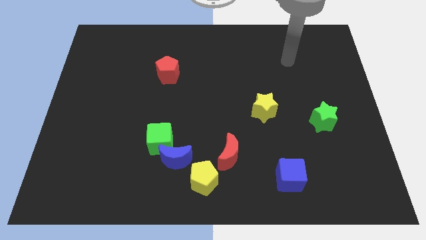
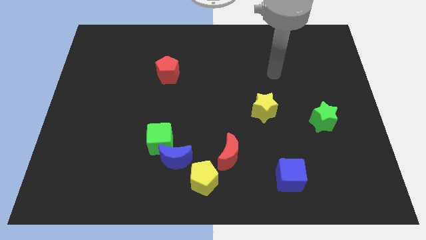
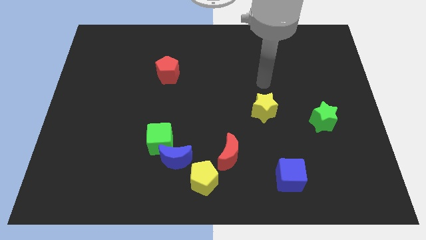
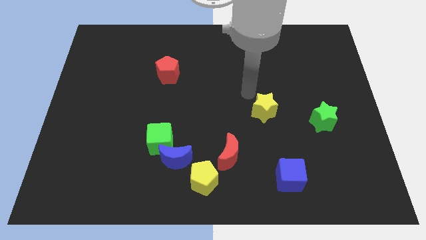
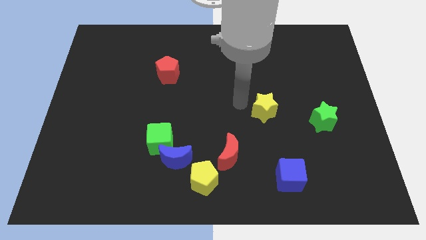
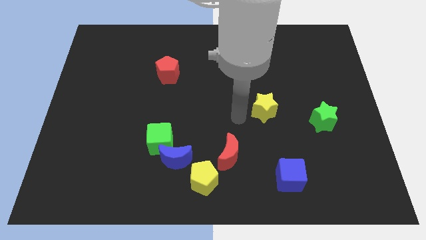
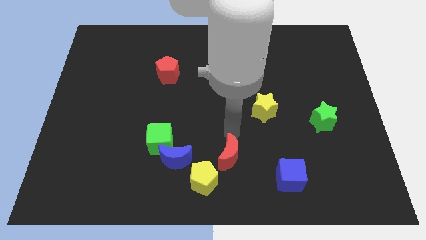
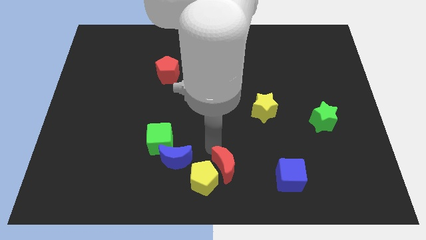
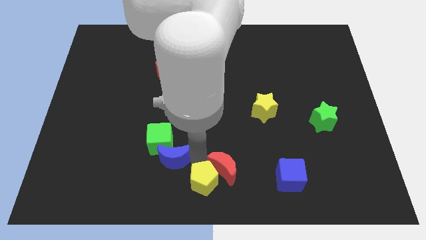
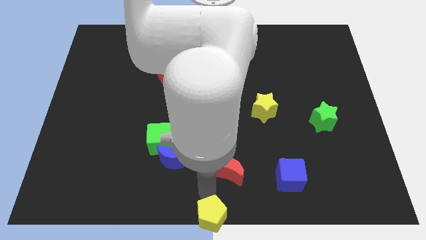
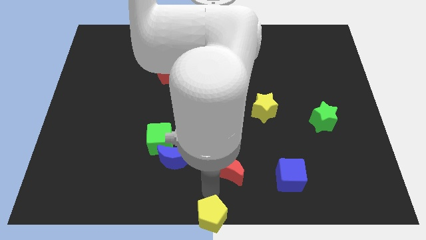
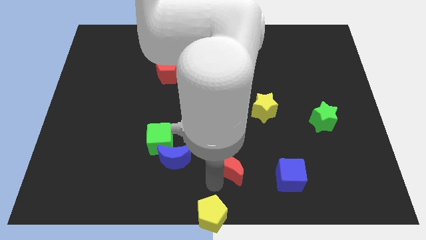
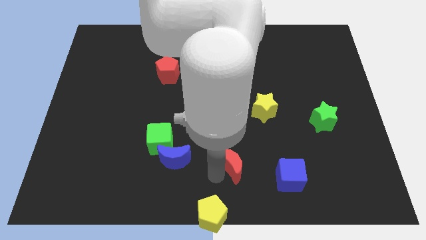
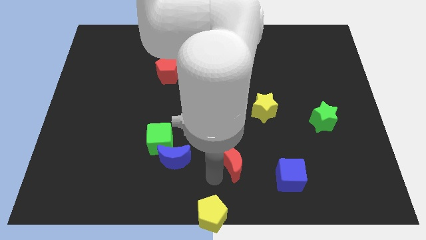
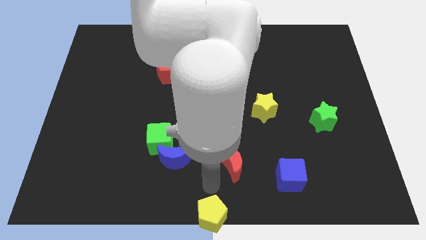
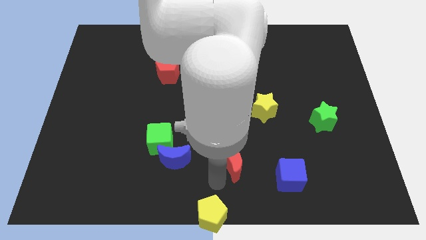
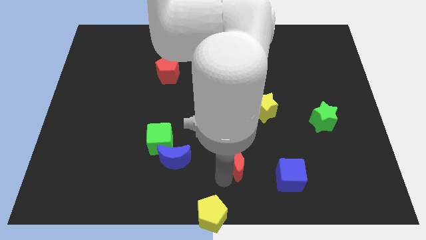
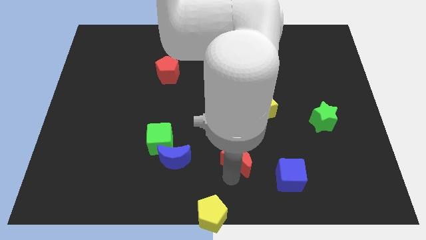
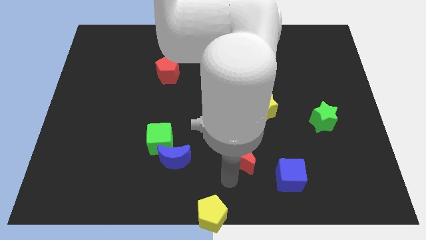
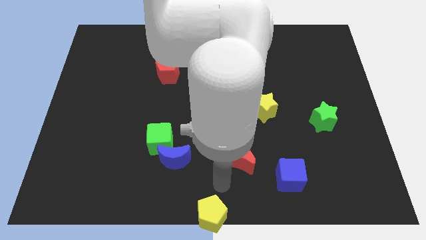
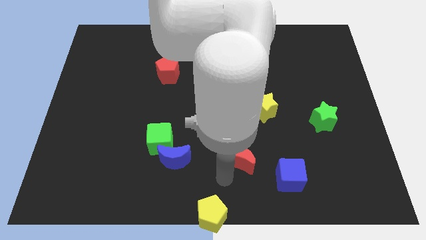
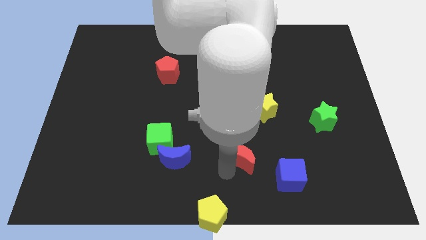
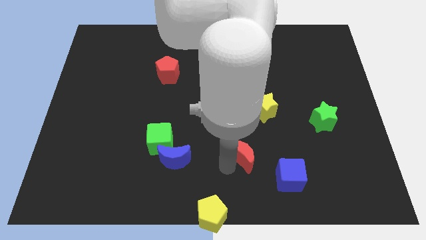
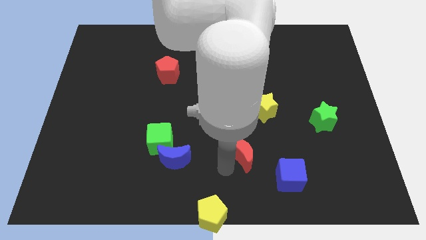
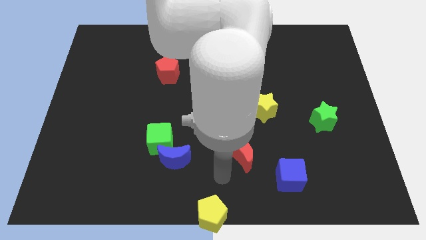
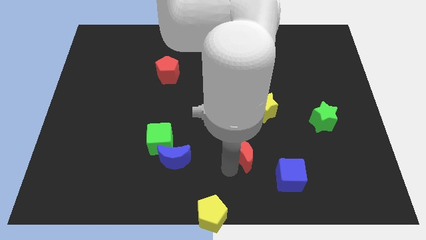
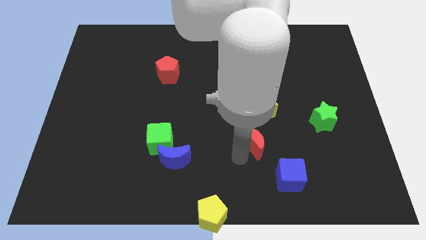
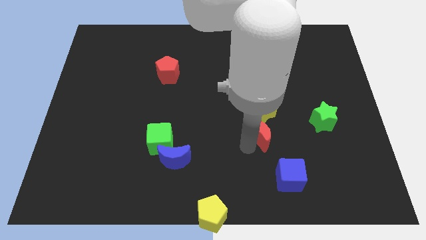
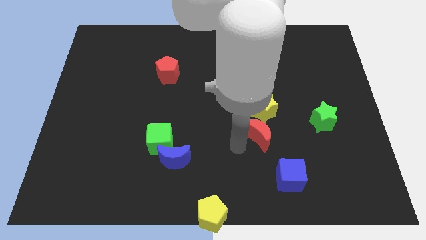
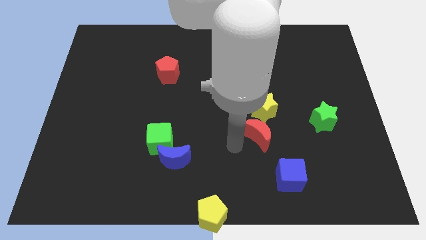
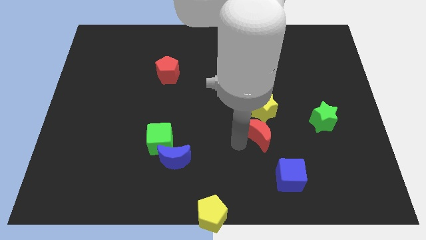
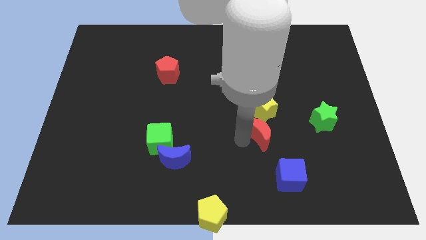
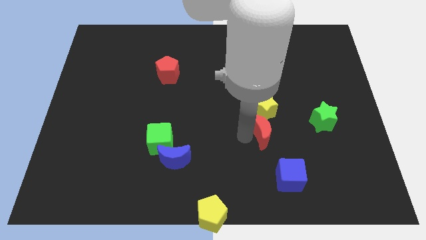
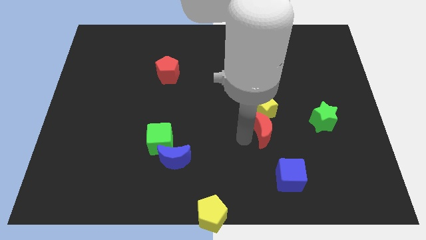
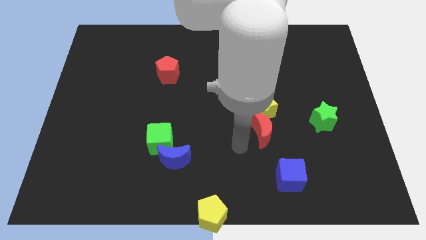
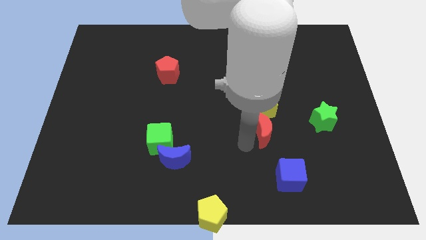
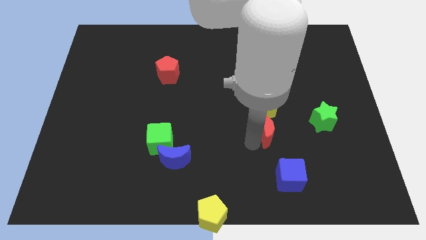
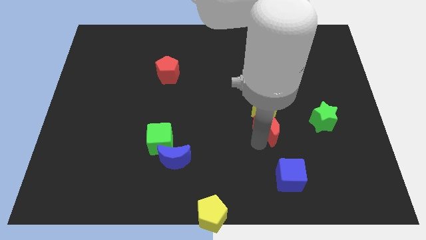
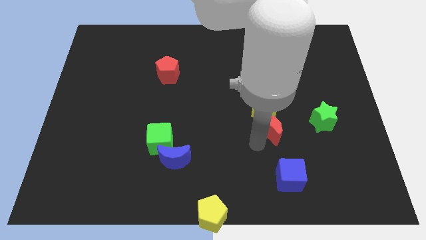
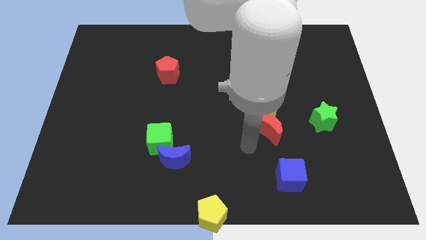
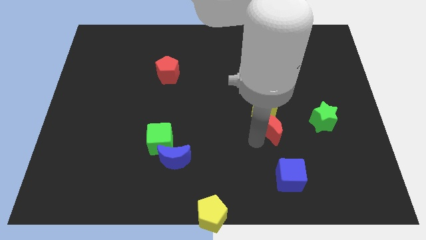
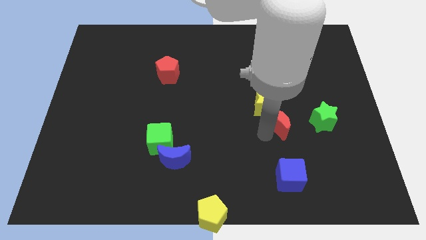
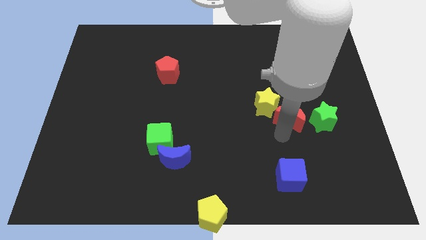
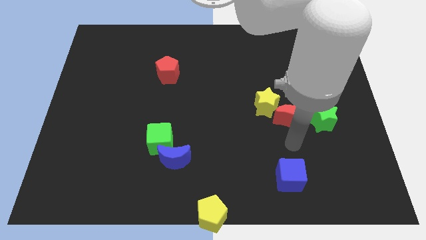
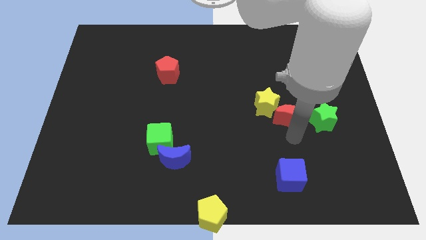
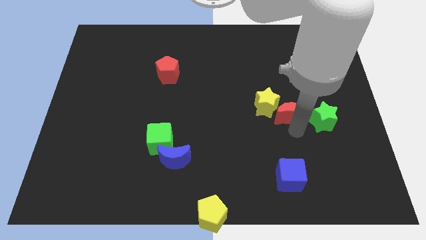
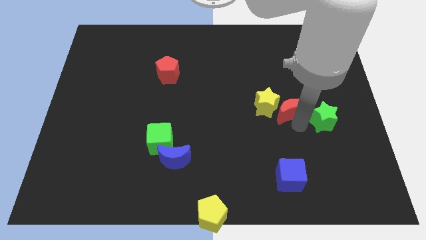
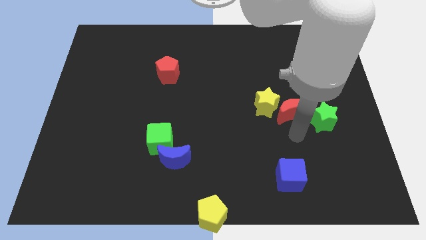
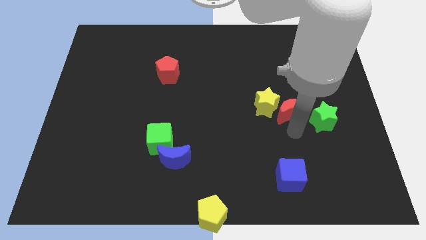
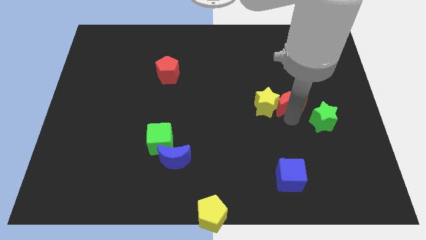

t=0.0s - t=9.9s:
push the red moon to the top right side of the yellow star
